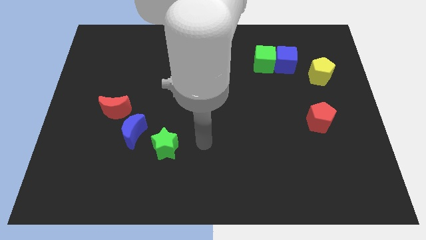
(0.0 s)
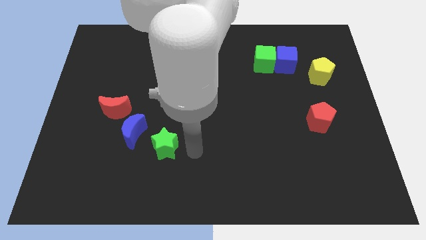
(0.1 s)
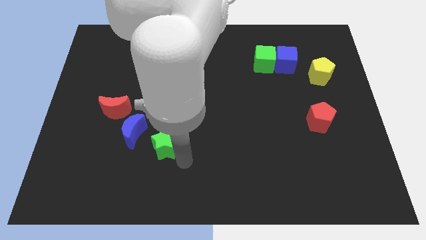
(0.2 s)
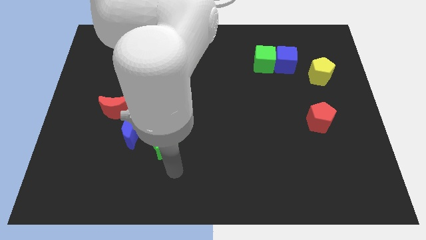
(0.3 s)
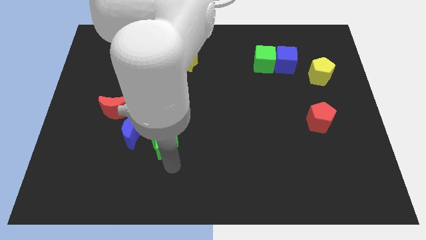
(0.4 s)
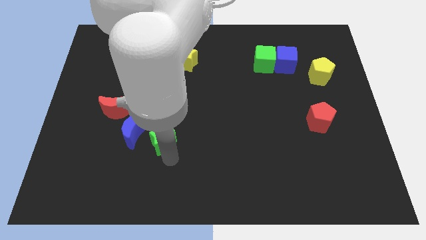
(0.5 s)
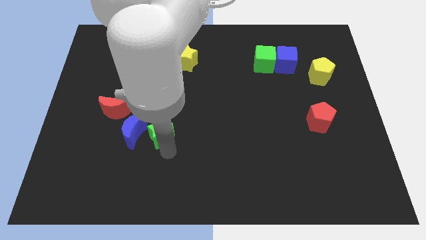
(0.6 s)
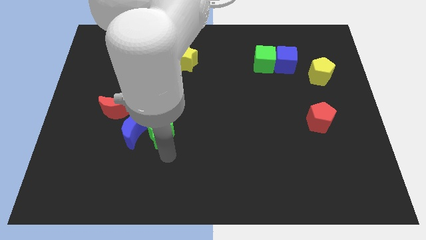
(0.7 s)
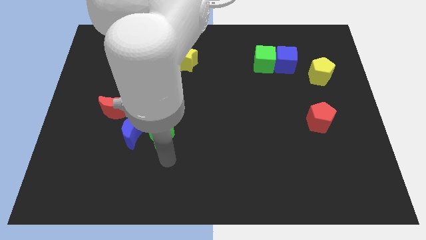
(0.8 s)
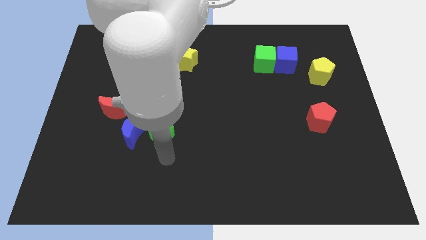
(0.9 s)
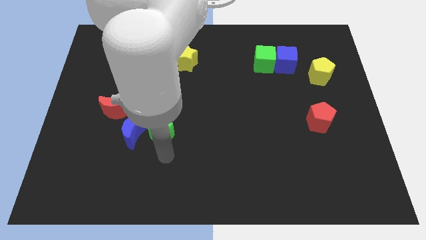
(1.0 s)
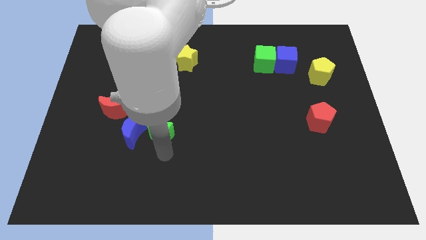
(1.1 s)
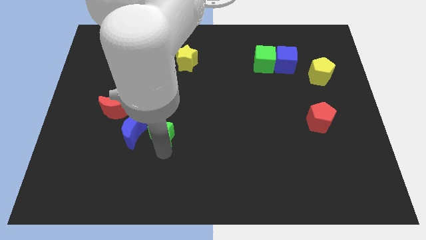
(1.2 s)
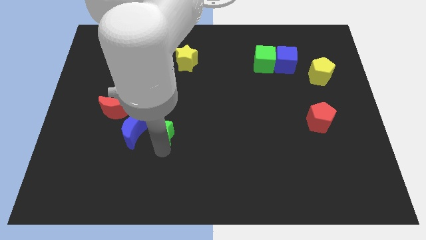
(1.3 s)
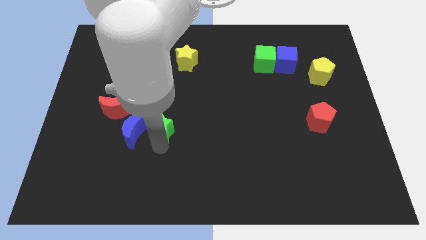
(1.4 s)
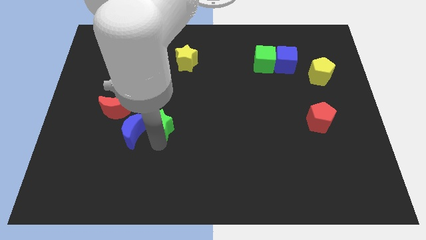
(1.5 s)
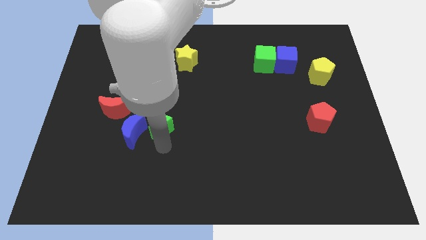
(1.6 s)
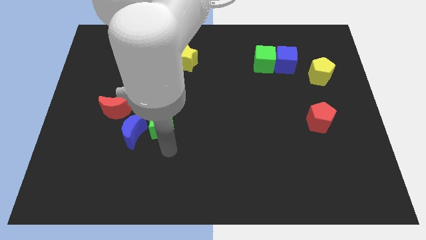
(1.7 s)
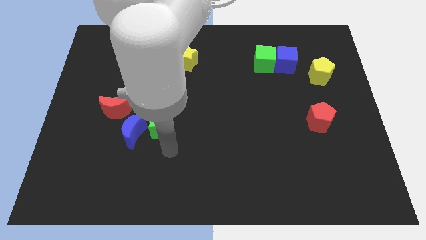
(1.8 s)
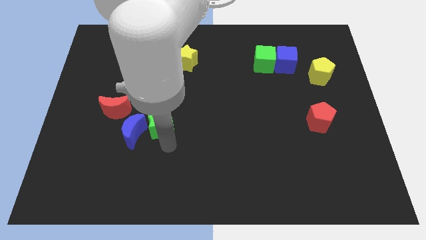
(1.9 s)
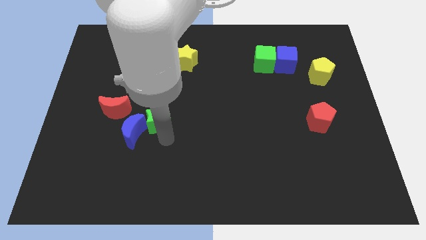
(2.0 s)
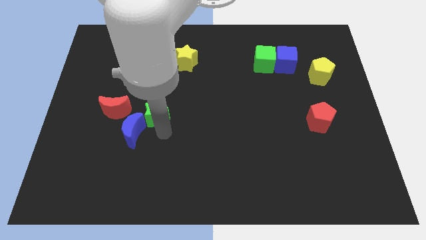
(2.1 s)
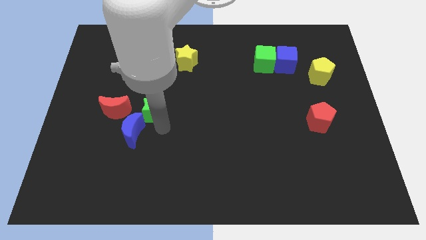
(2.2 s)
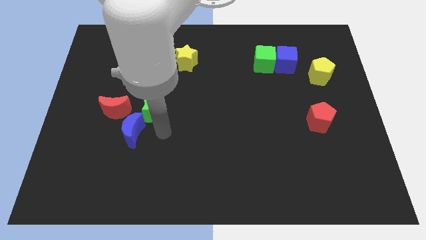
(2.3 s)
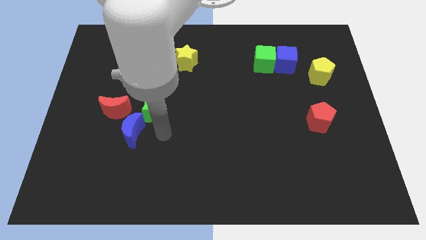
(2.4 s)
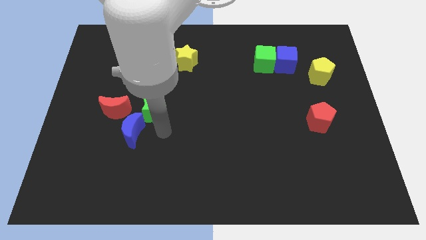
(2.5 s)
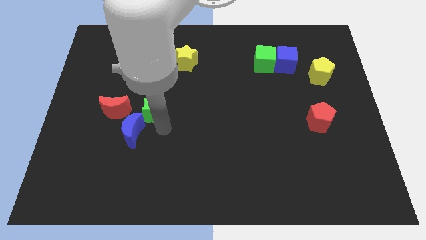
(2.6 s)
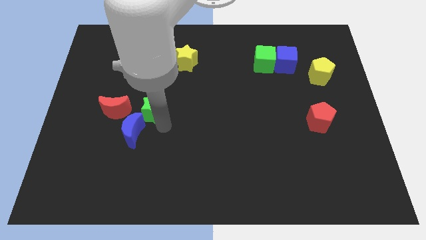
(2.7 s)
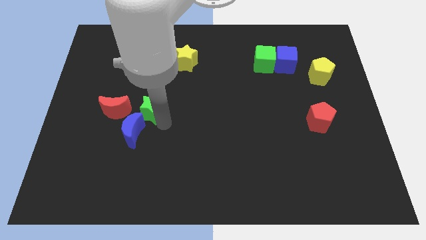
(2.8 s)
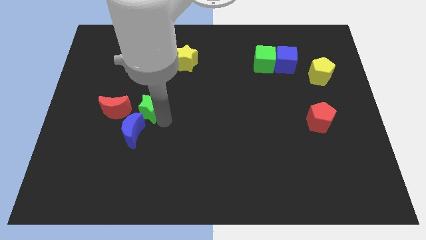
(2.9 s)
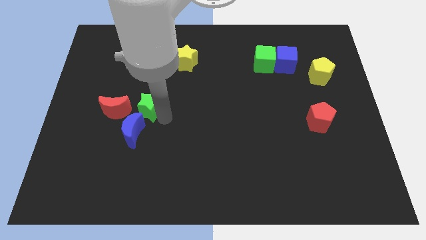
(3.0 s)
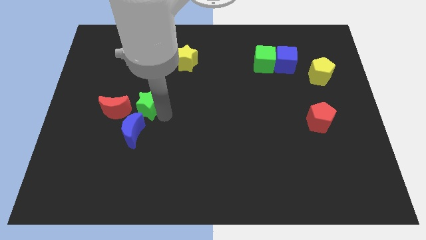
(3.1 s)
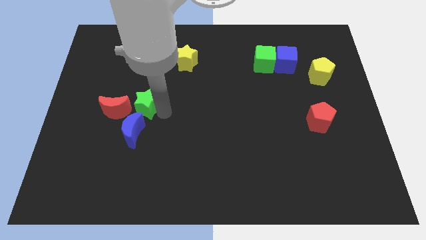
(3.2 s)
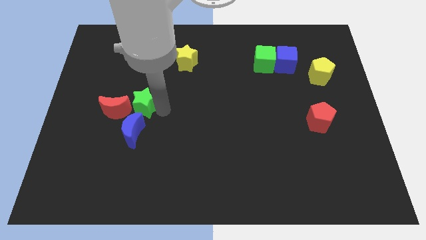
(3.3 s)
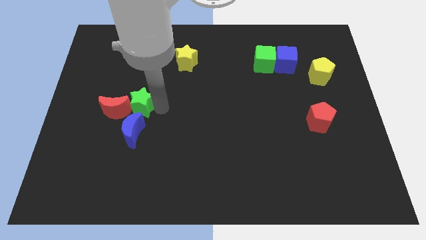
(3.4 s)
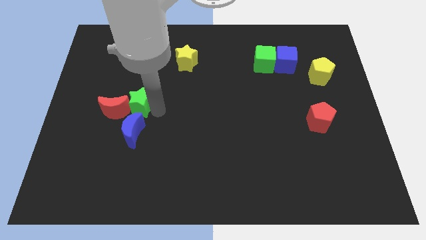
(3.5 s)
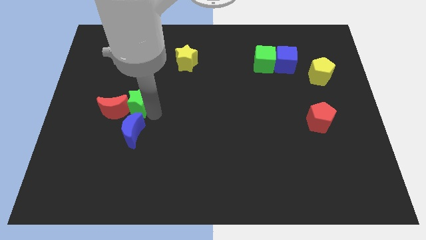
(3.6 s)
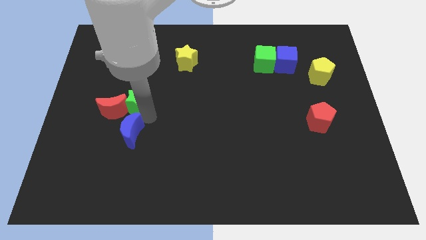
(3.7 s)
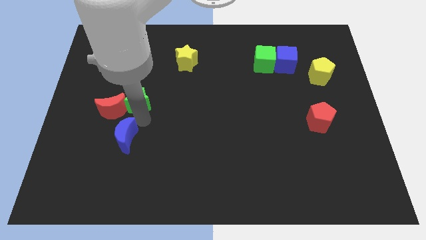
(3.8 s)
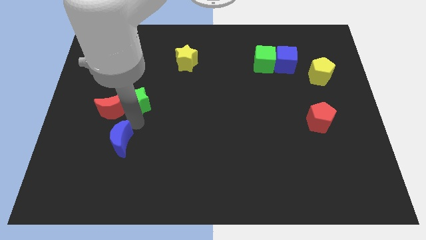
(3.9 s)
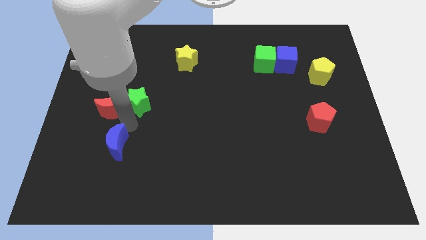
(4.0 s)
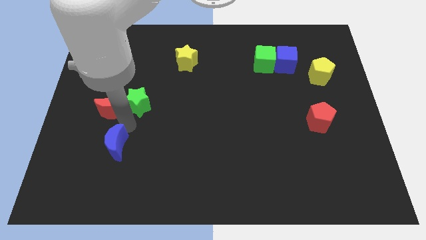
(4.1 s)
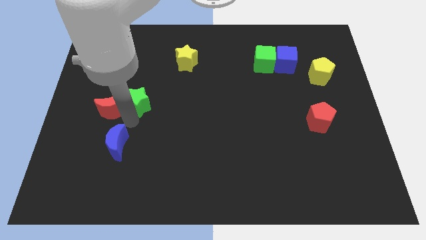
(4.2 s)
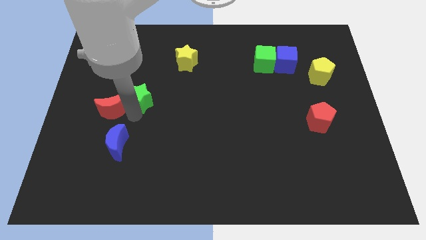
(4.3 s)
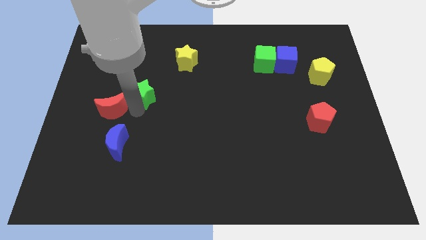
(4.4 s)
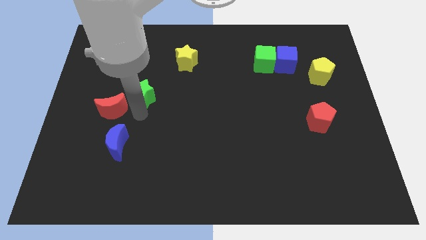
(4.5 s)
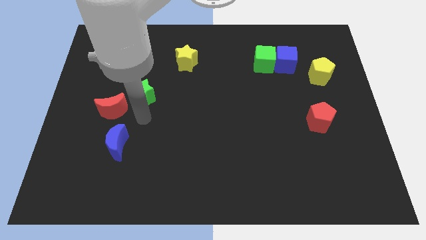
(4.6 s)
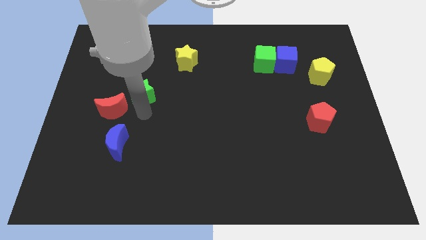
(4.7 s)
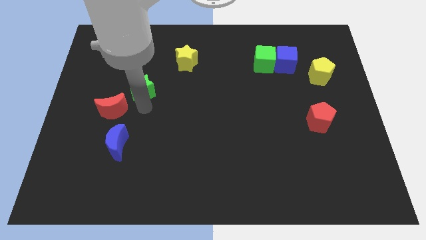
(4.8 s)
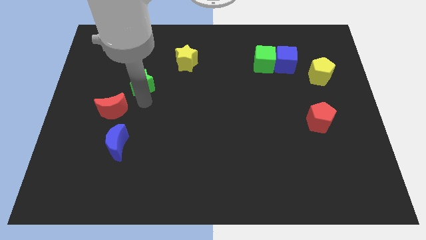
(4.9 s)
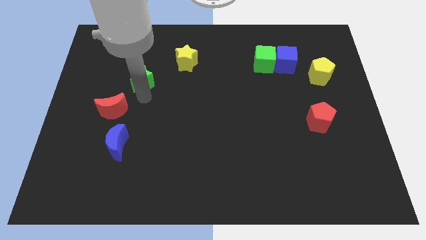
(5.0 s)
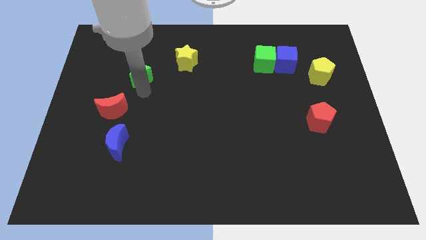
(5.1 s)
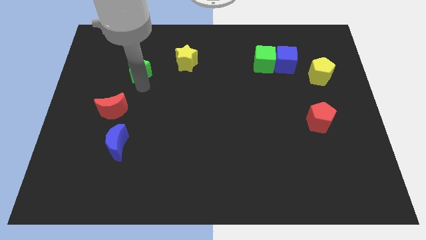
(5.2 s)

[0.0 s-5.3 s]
push the green star left of the yellow star

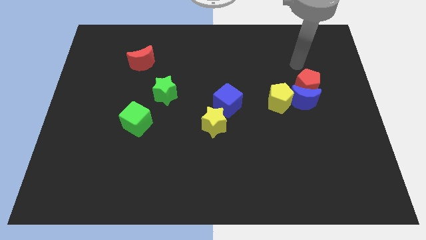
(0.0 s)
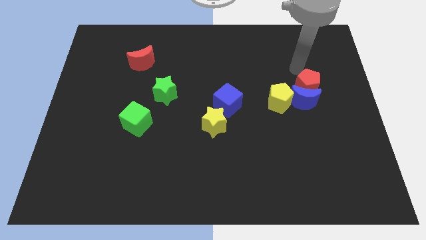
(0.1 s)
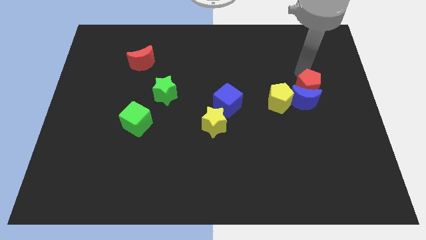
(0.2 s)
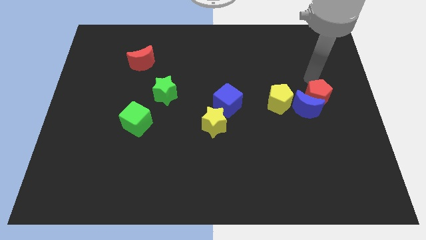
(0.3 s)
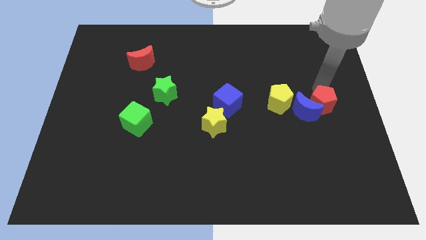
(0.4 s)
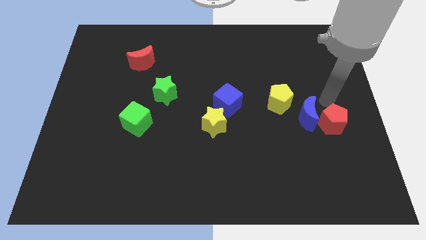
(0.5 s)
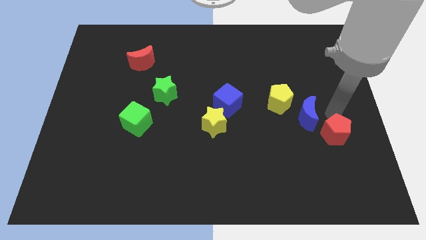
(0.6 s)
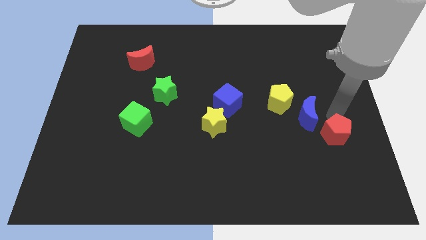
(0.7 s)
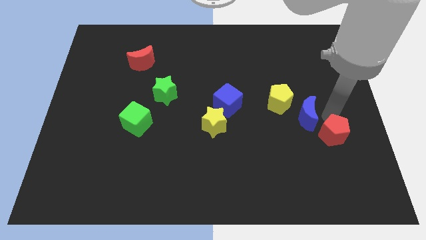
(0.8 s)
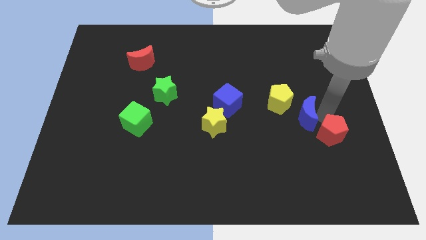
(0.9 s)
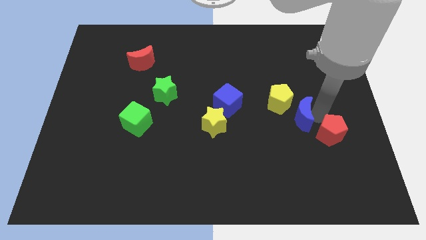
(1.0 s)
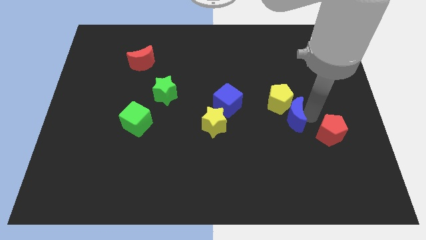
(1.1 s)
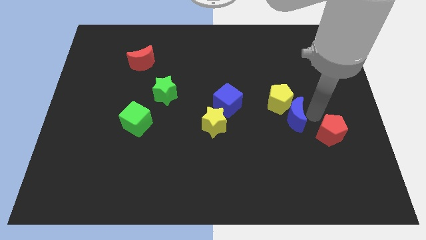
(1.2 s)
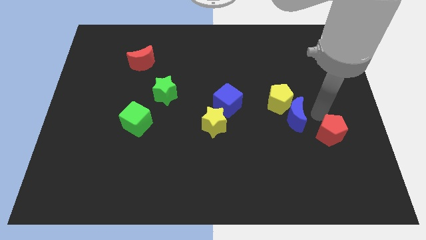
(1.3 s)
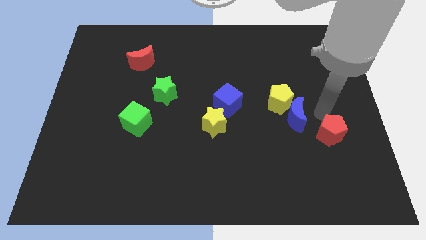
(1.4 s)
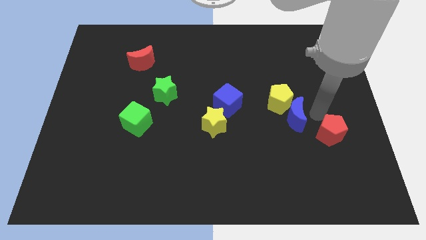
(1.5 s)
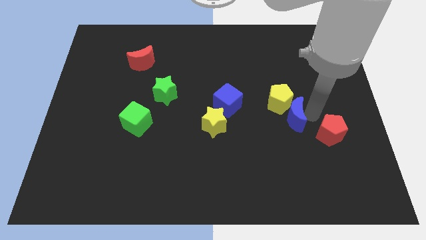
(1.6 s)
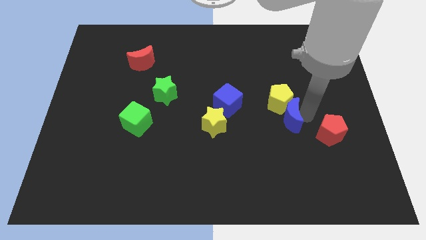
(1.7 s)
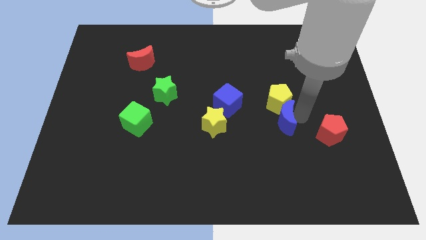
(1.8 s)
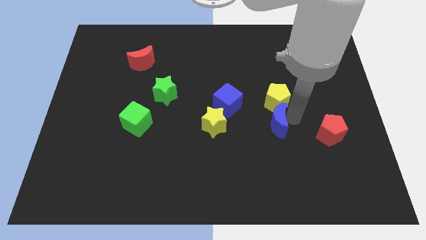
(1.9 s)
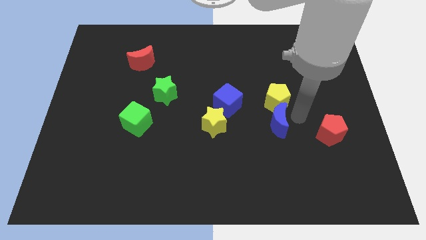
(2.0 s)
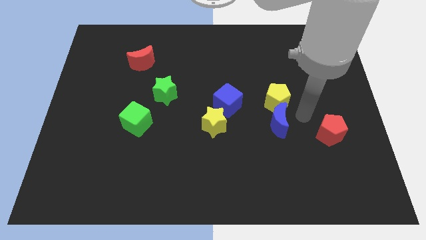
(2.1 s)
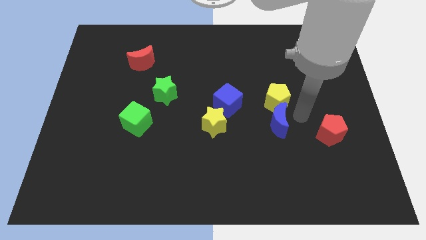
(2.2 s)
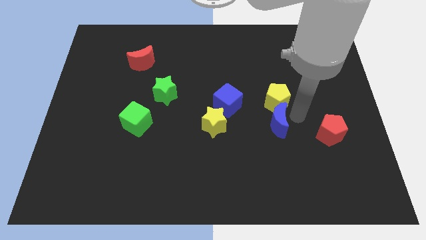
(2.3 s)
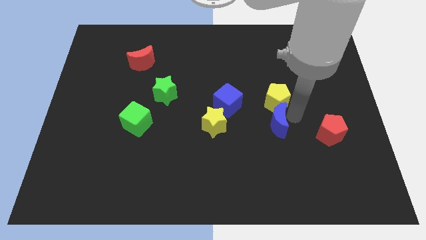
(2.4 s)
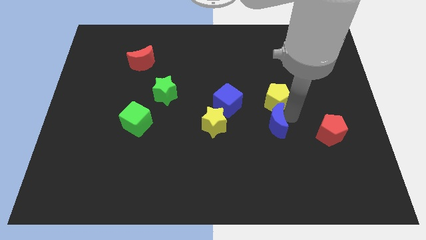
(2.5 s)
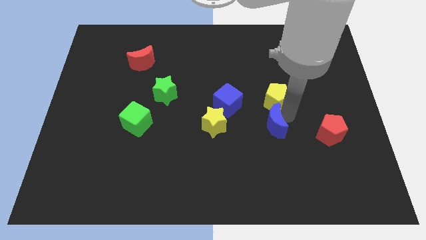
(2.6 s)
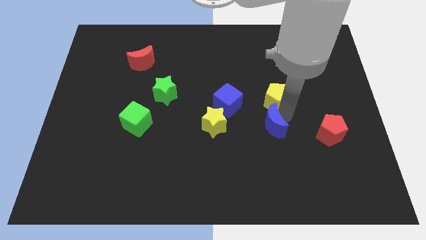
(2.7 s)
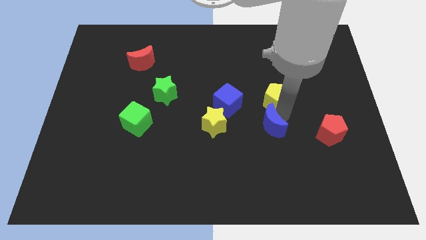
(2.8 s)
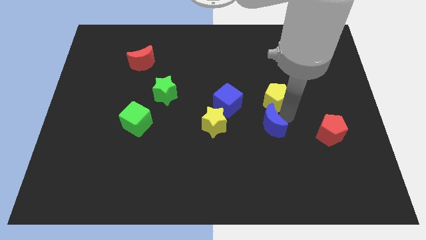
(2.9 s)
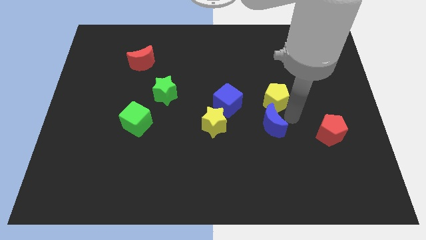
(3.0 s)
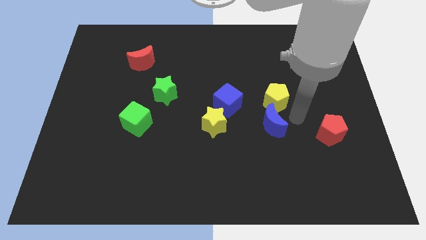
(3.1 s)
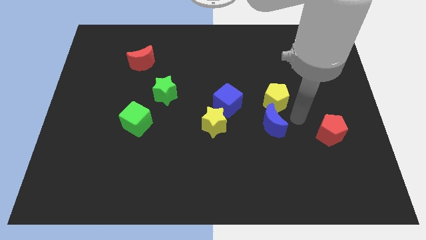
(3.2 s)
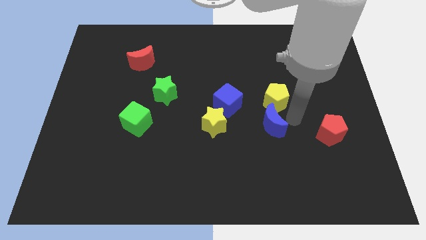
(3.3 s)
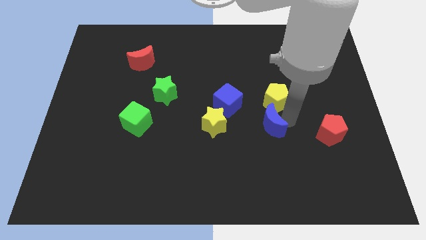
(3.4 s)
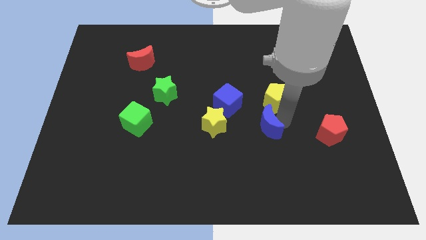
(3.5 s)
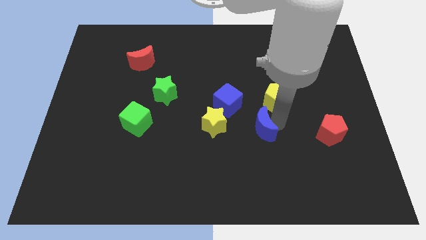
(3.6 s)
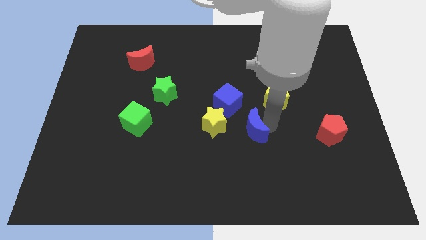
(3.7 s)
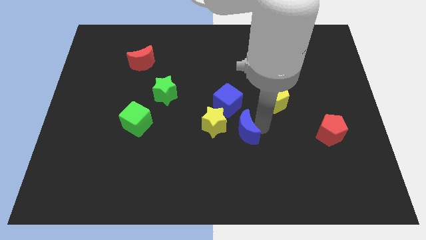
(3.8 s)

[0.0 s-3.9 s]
slide the blue moon to the bottom side of the blue cube
